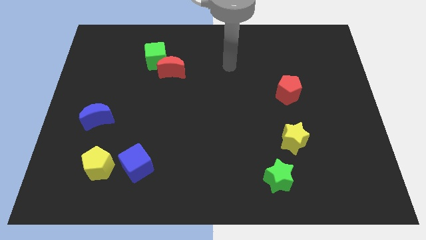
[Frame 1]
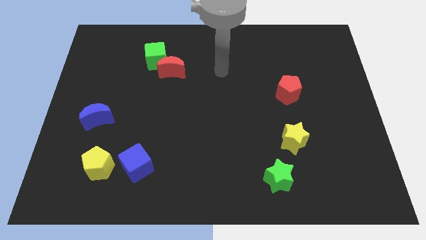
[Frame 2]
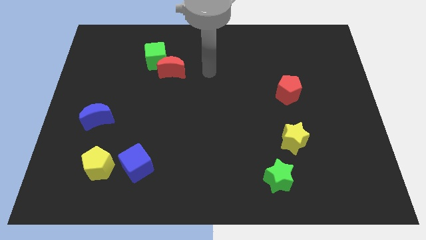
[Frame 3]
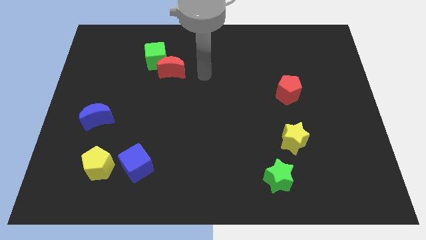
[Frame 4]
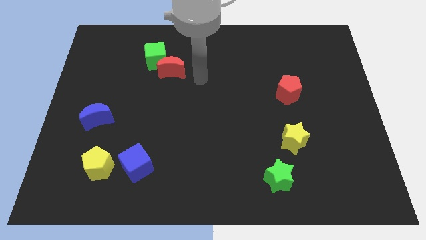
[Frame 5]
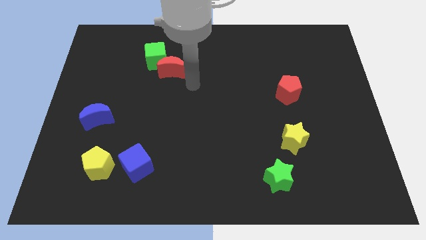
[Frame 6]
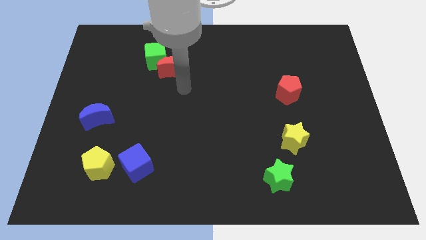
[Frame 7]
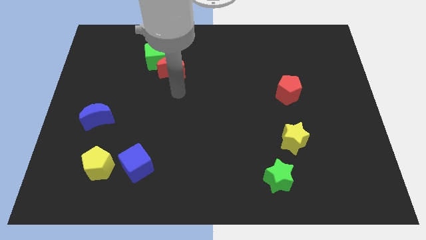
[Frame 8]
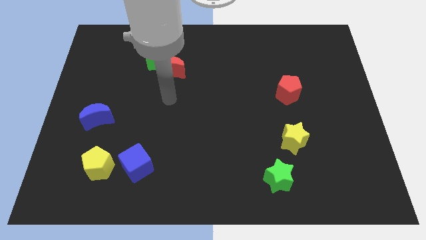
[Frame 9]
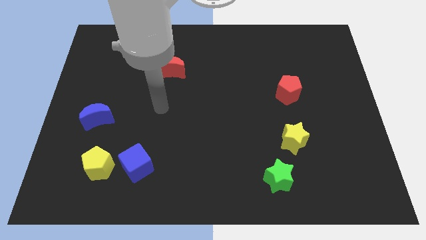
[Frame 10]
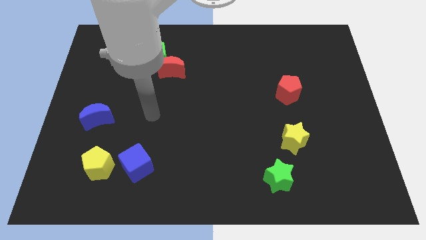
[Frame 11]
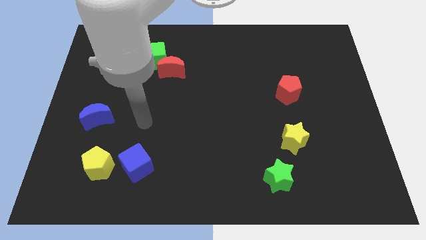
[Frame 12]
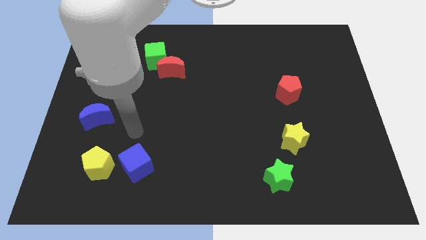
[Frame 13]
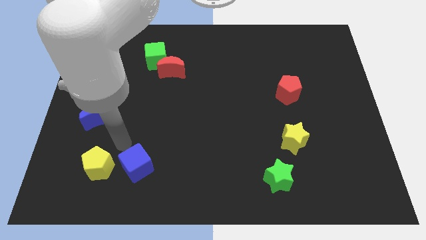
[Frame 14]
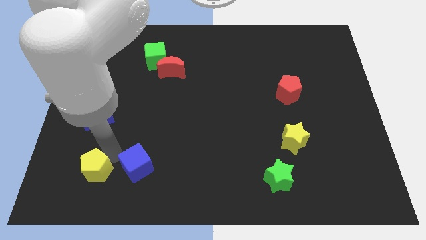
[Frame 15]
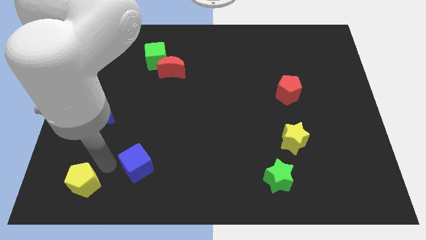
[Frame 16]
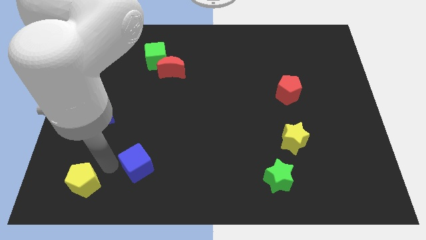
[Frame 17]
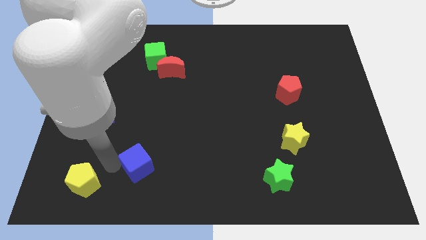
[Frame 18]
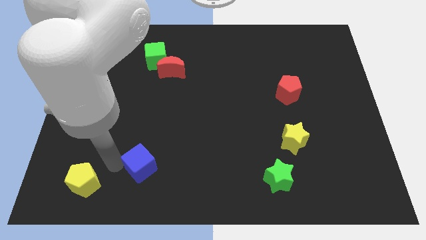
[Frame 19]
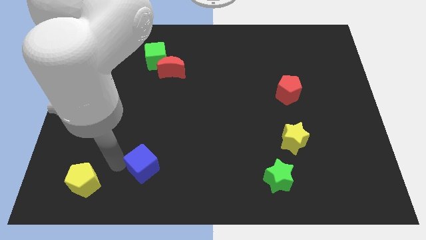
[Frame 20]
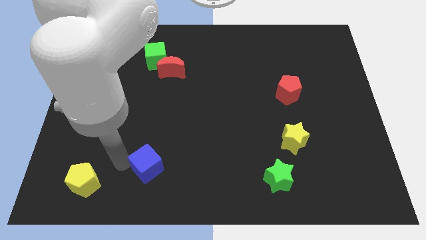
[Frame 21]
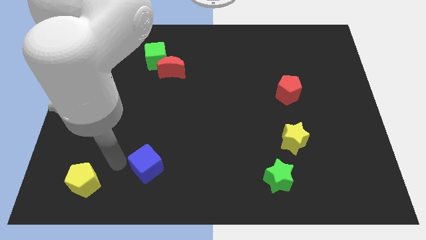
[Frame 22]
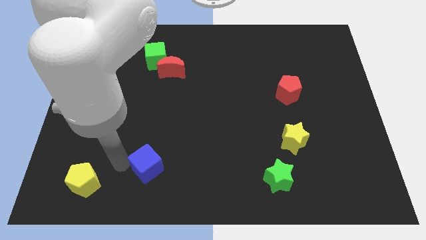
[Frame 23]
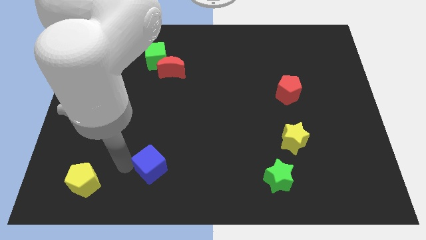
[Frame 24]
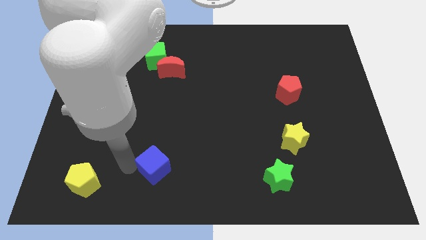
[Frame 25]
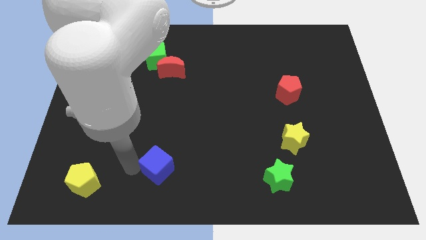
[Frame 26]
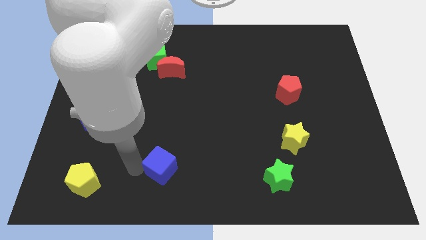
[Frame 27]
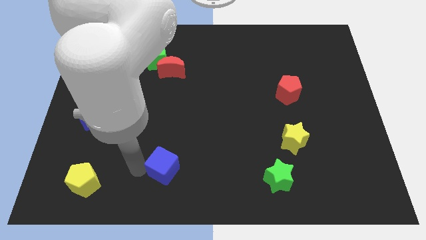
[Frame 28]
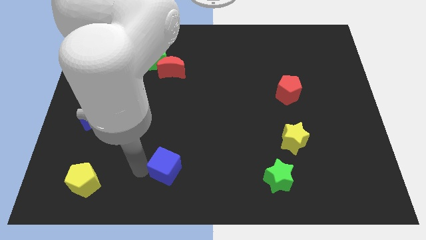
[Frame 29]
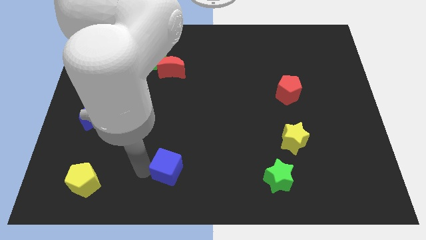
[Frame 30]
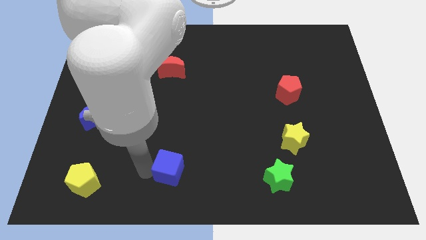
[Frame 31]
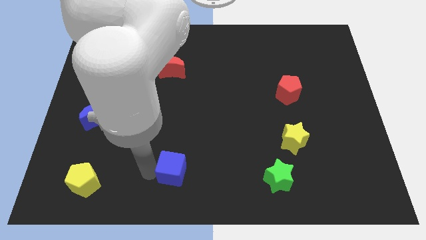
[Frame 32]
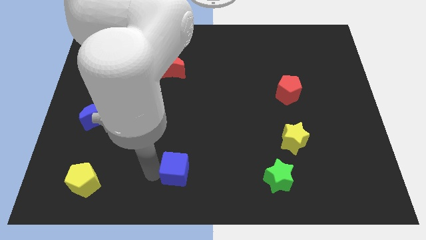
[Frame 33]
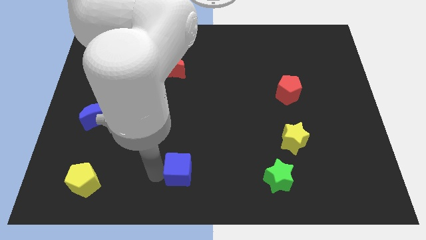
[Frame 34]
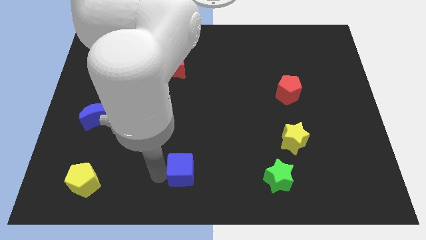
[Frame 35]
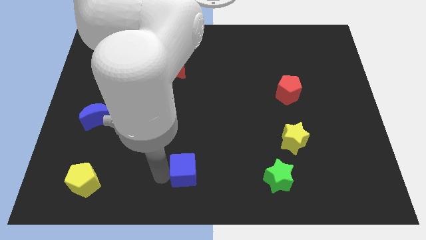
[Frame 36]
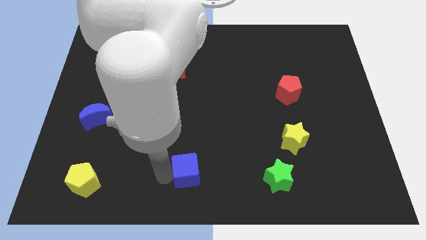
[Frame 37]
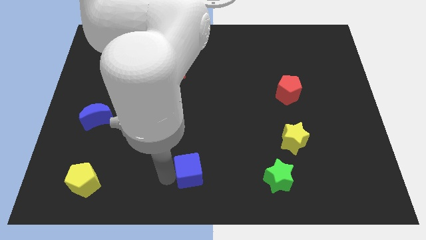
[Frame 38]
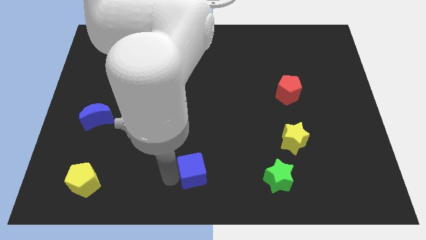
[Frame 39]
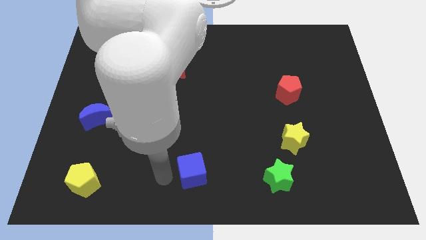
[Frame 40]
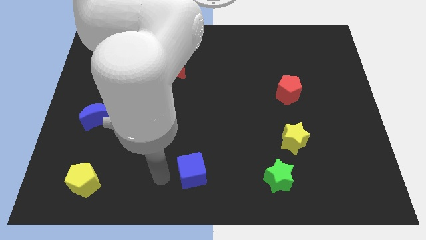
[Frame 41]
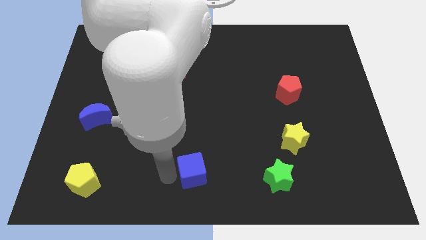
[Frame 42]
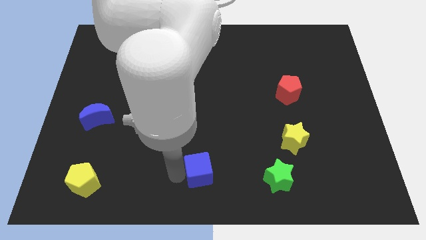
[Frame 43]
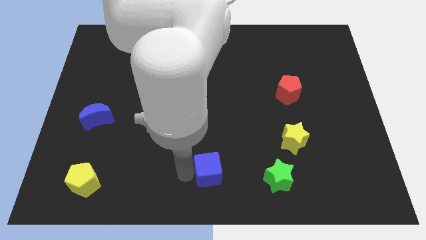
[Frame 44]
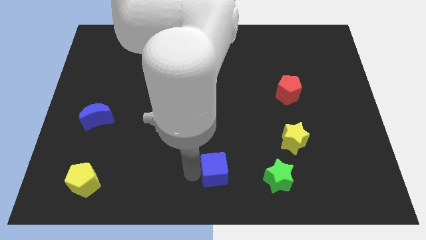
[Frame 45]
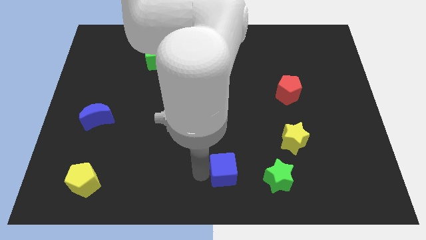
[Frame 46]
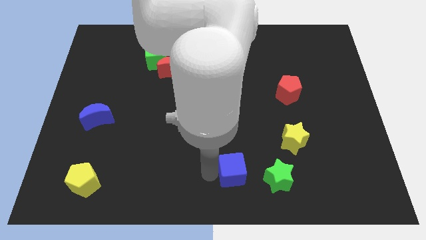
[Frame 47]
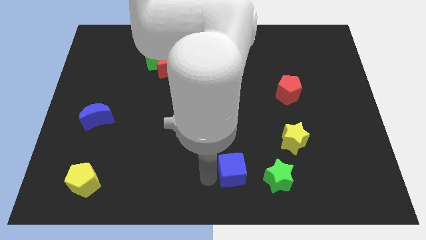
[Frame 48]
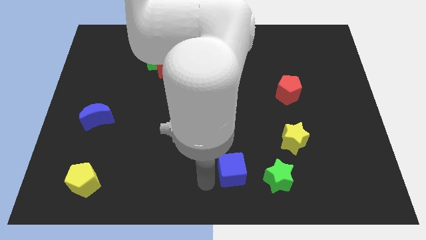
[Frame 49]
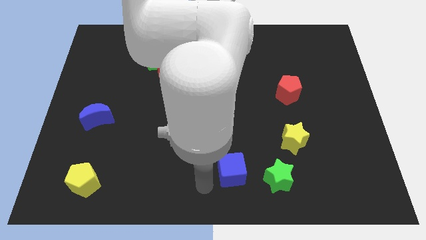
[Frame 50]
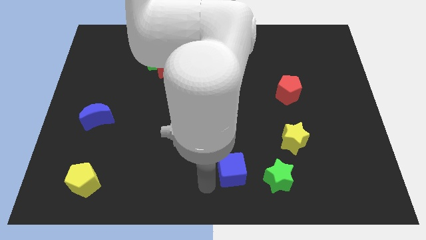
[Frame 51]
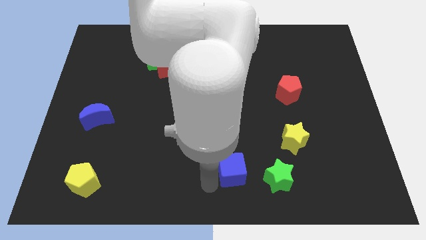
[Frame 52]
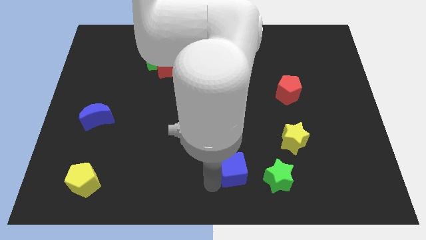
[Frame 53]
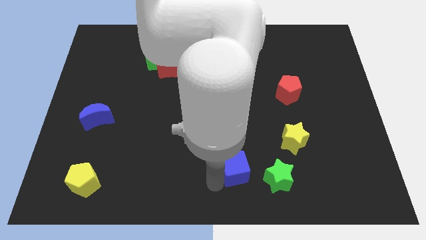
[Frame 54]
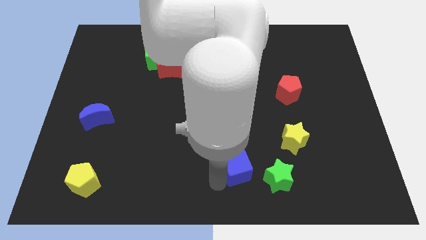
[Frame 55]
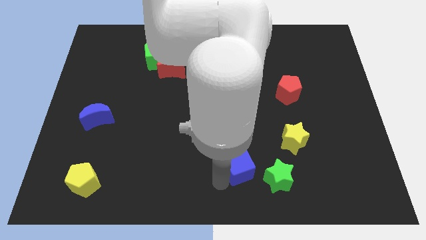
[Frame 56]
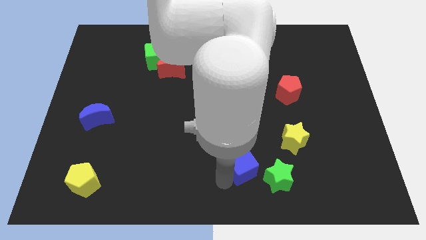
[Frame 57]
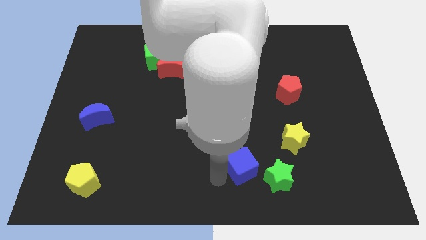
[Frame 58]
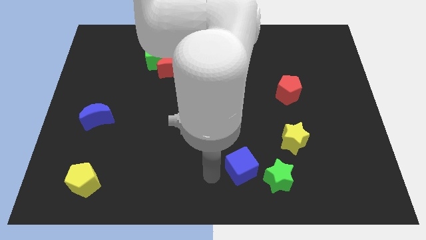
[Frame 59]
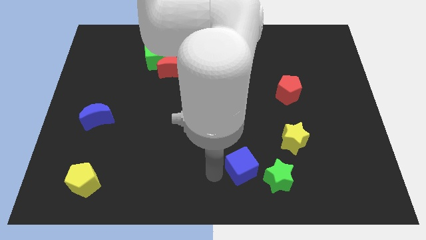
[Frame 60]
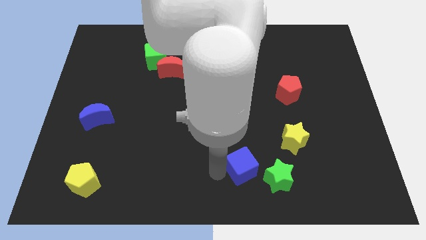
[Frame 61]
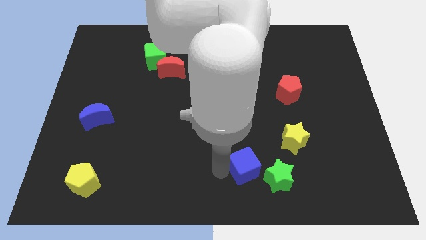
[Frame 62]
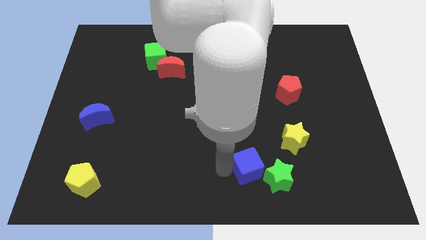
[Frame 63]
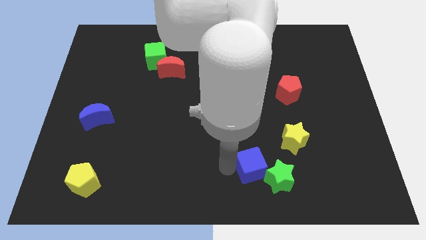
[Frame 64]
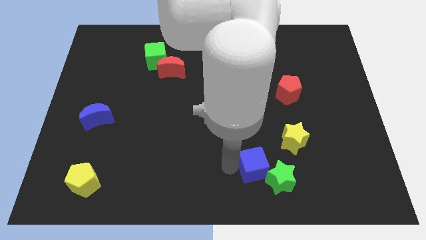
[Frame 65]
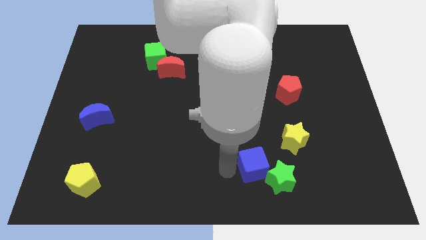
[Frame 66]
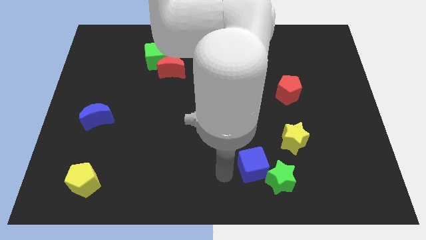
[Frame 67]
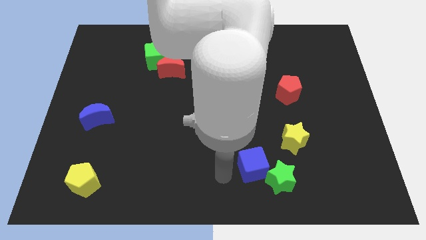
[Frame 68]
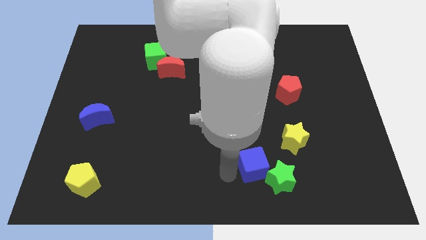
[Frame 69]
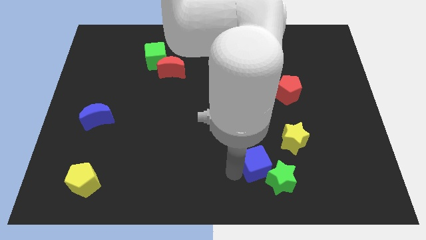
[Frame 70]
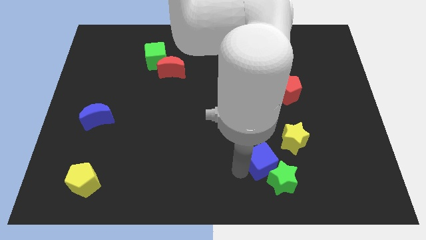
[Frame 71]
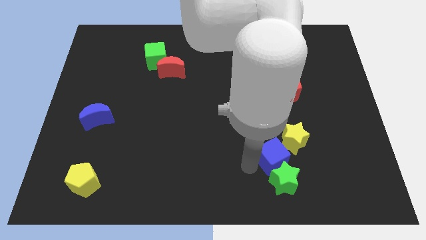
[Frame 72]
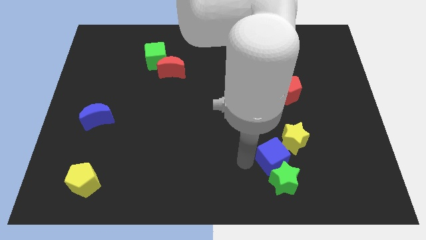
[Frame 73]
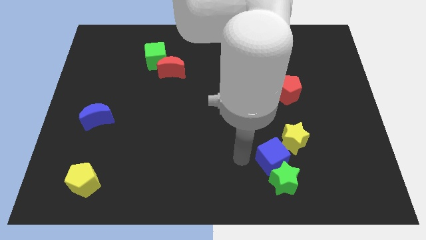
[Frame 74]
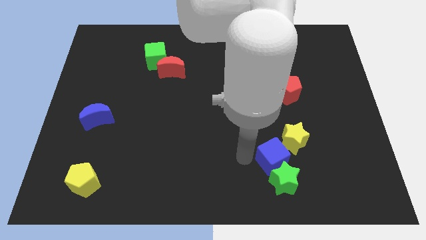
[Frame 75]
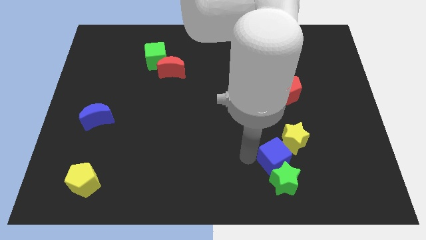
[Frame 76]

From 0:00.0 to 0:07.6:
move the blue cube to the top right of the green star
